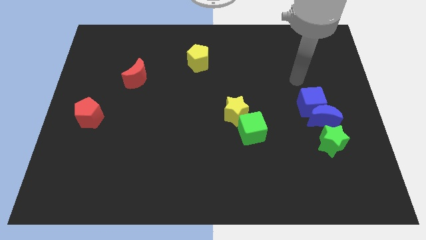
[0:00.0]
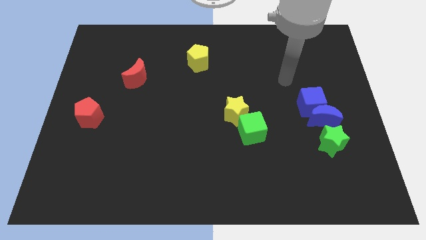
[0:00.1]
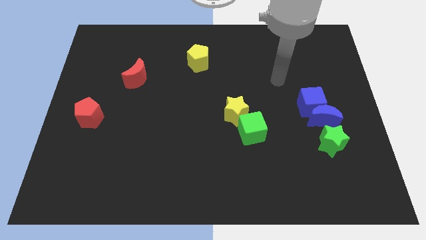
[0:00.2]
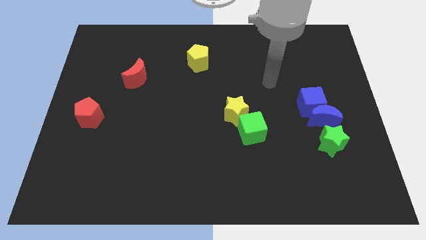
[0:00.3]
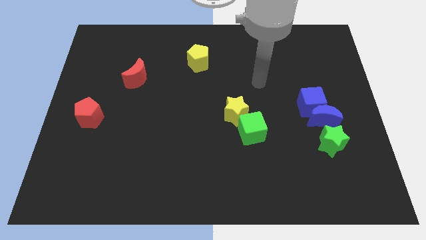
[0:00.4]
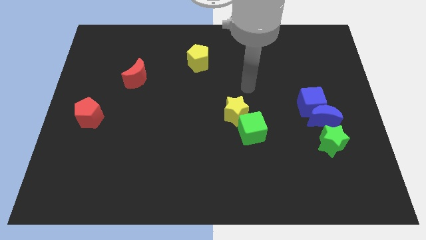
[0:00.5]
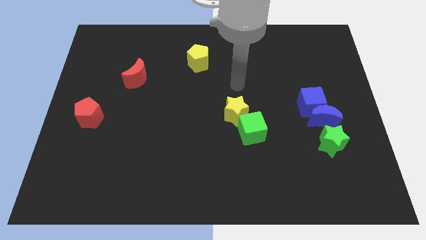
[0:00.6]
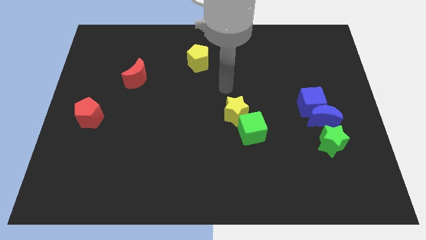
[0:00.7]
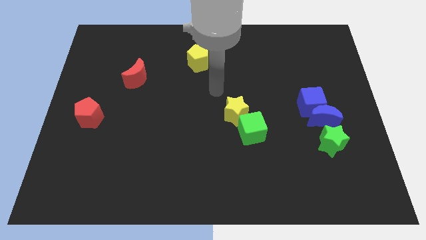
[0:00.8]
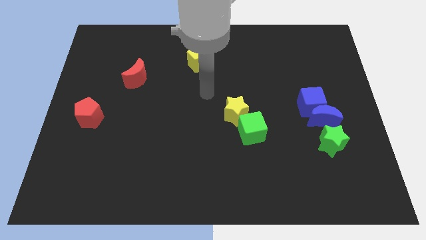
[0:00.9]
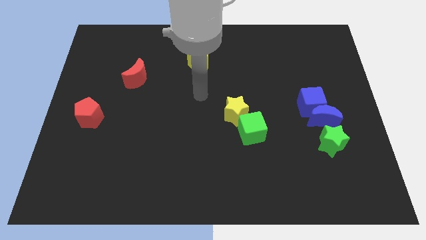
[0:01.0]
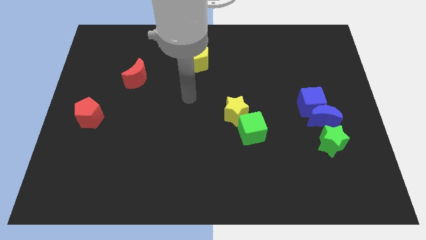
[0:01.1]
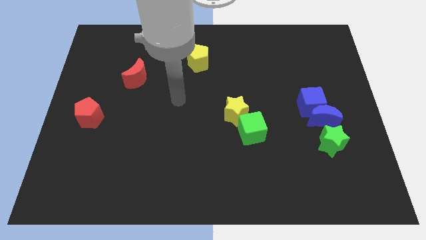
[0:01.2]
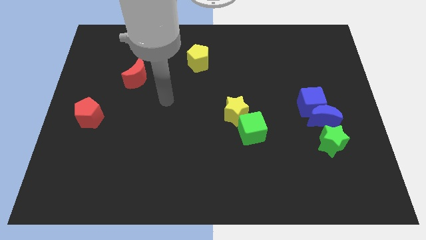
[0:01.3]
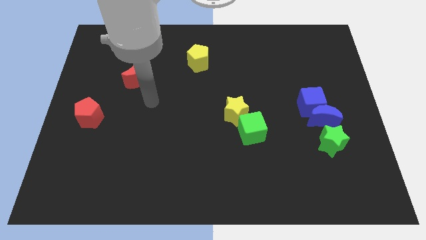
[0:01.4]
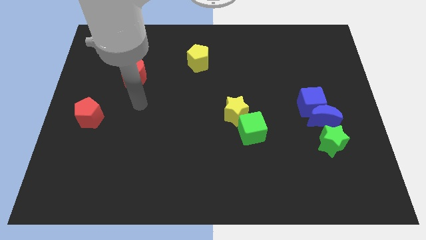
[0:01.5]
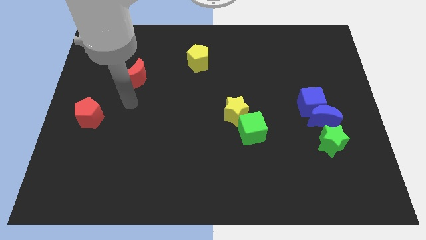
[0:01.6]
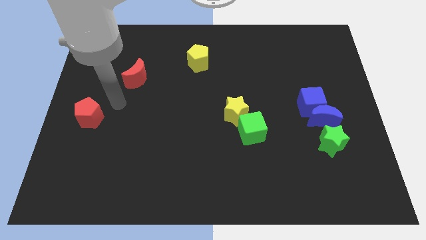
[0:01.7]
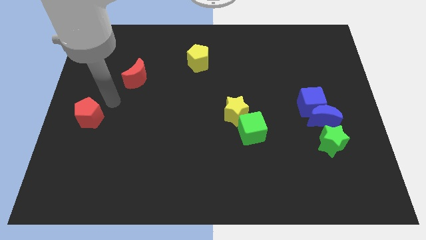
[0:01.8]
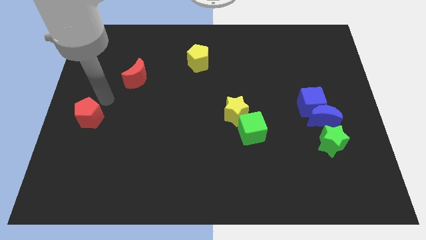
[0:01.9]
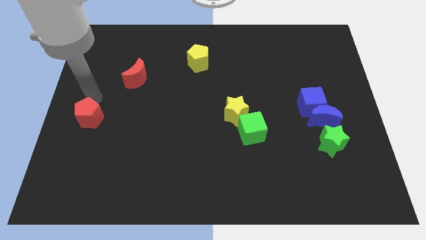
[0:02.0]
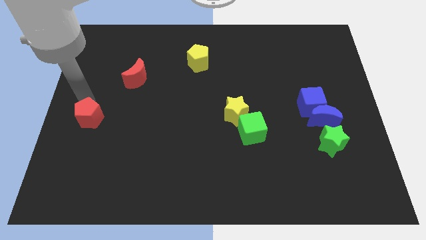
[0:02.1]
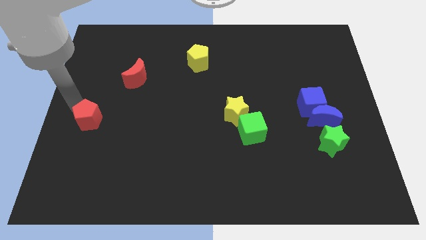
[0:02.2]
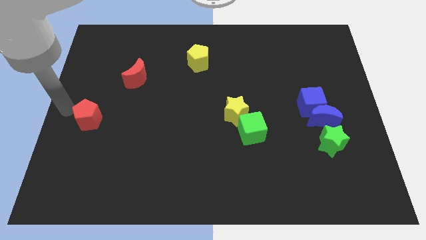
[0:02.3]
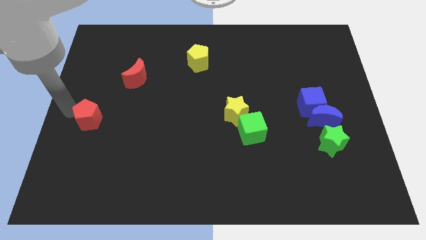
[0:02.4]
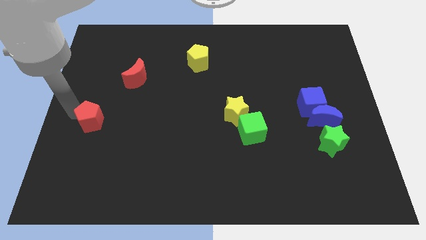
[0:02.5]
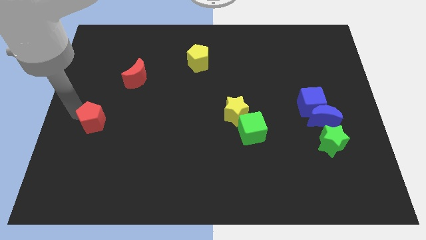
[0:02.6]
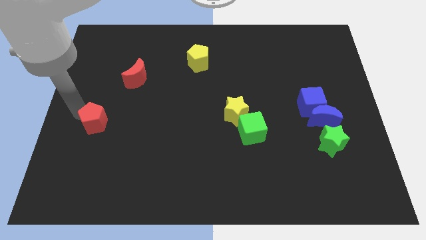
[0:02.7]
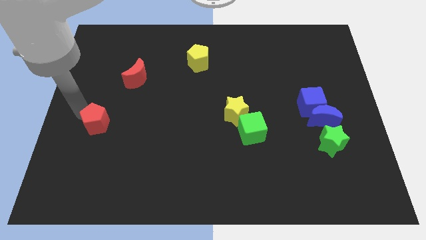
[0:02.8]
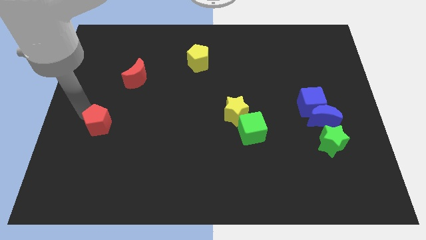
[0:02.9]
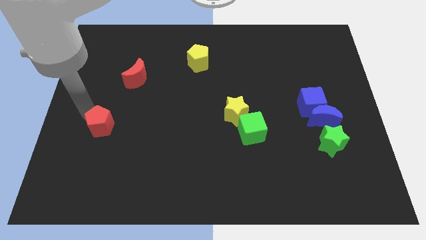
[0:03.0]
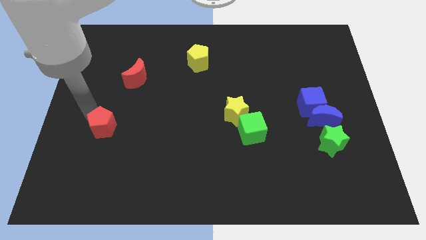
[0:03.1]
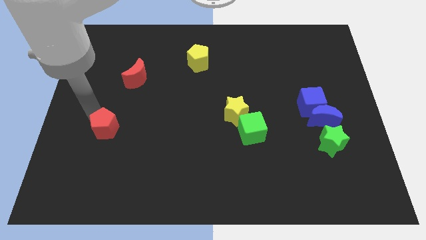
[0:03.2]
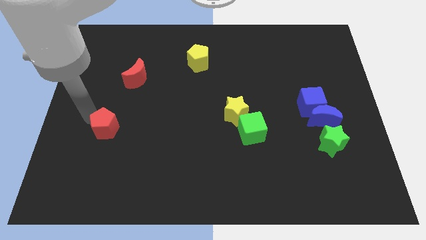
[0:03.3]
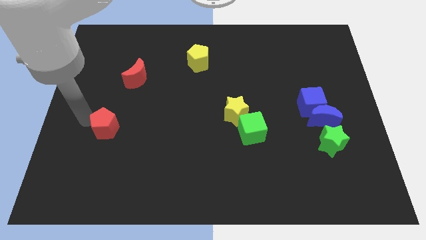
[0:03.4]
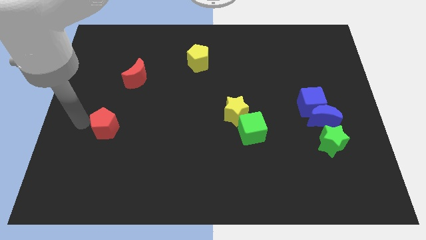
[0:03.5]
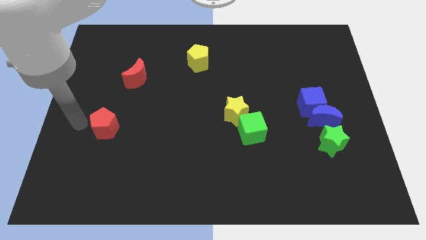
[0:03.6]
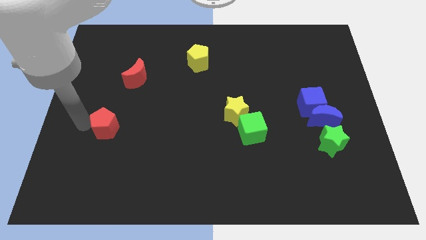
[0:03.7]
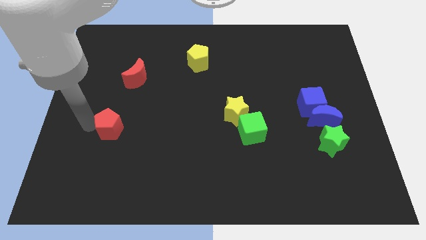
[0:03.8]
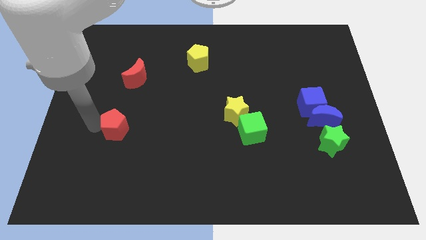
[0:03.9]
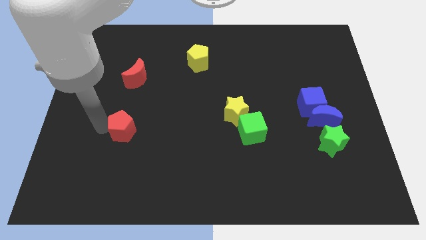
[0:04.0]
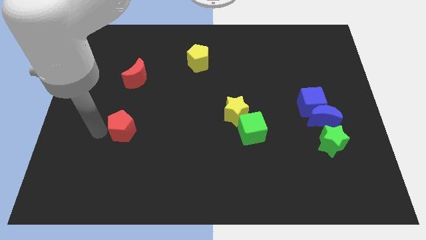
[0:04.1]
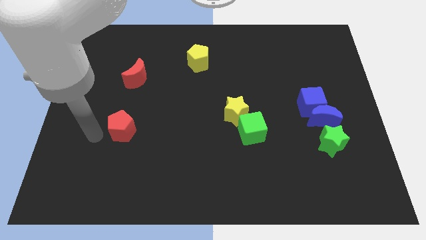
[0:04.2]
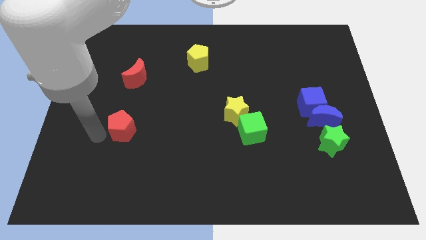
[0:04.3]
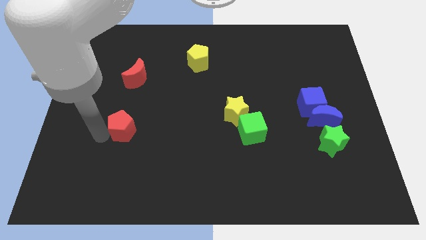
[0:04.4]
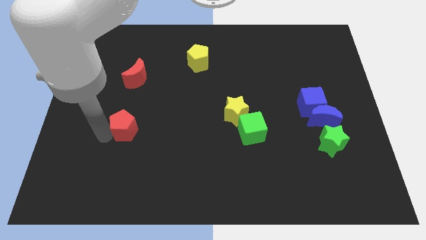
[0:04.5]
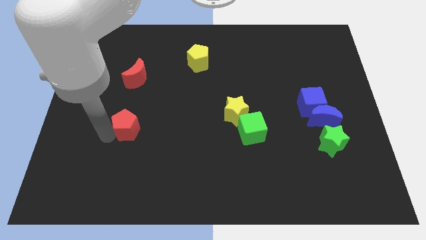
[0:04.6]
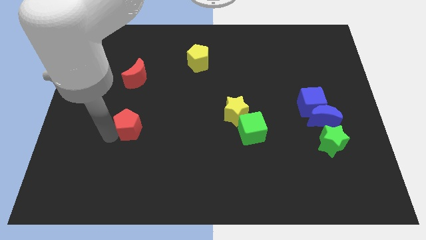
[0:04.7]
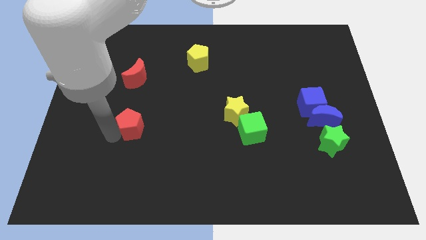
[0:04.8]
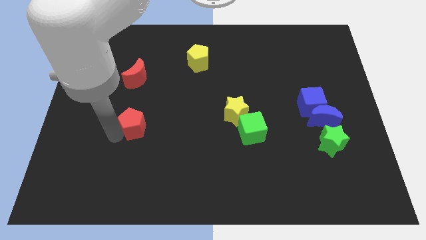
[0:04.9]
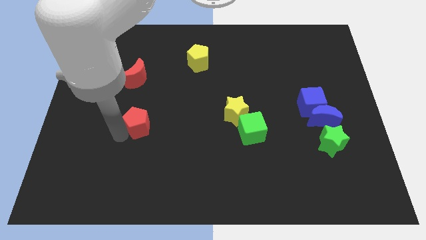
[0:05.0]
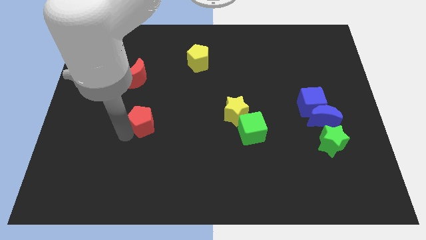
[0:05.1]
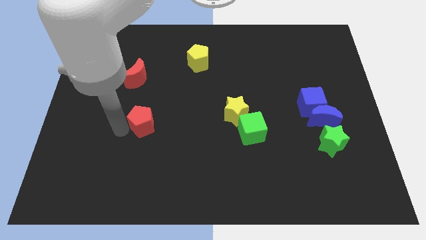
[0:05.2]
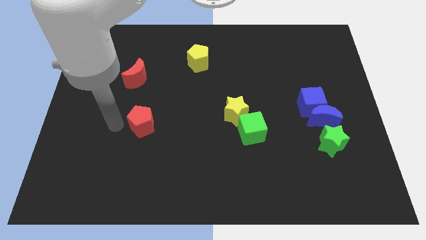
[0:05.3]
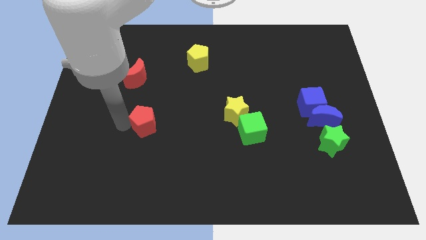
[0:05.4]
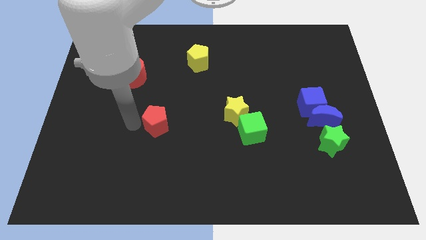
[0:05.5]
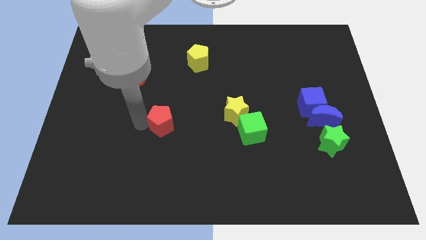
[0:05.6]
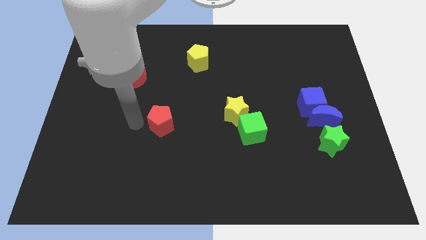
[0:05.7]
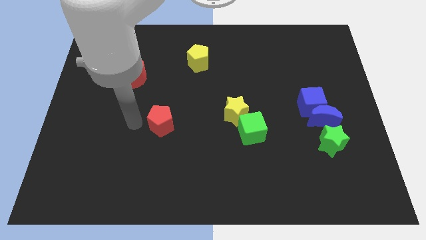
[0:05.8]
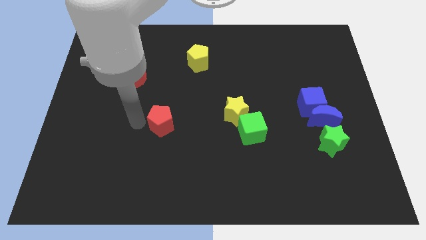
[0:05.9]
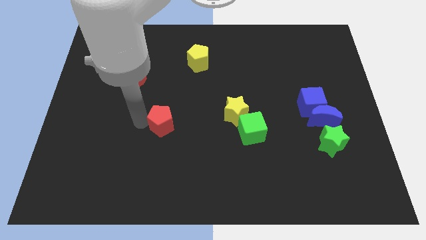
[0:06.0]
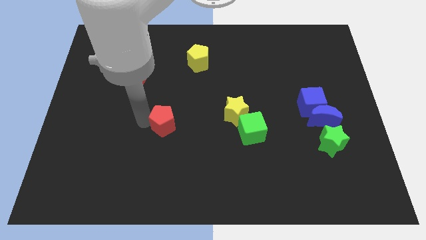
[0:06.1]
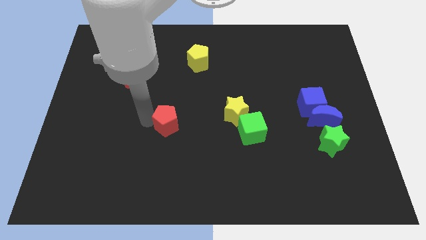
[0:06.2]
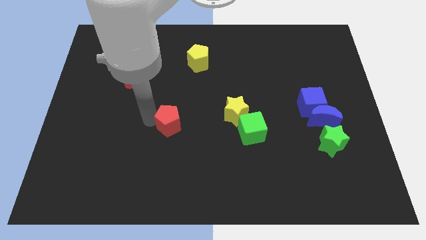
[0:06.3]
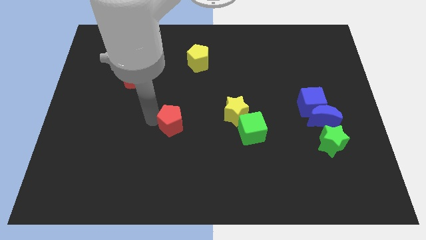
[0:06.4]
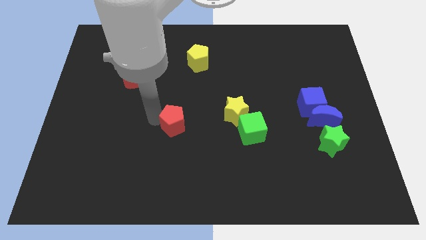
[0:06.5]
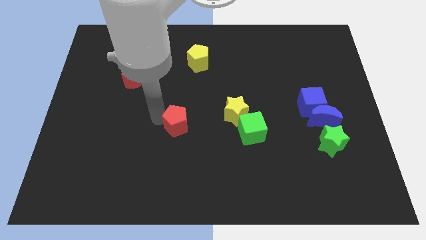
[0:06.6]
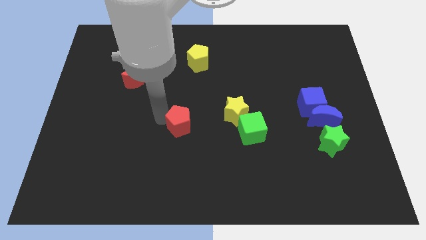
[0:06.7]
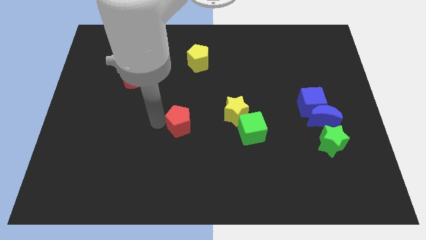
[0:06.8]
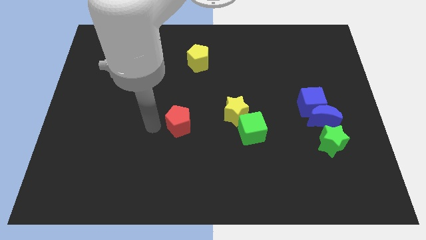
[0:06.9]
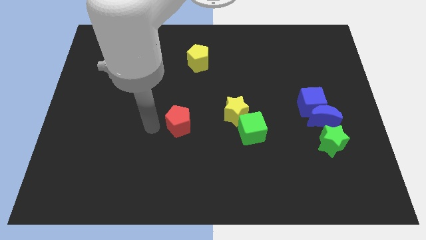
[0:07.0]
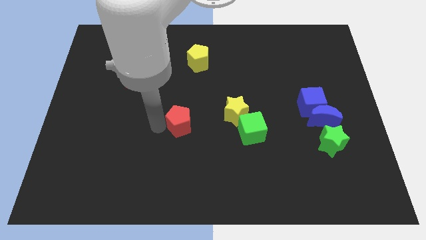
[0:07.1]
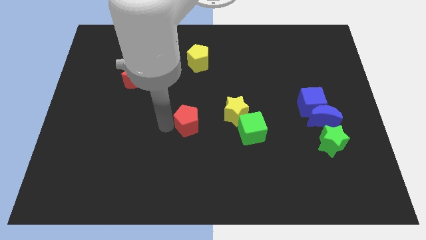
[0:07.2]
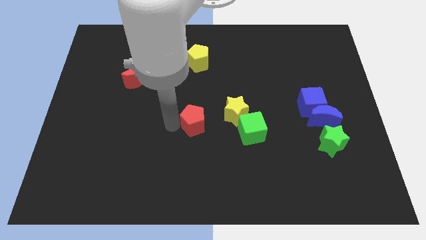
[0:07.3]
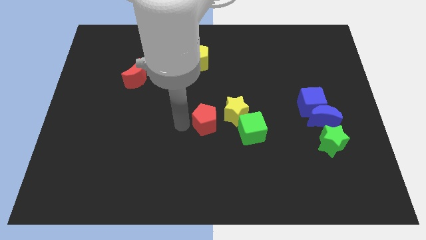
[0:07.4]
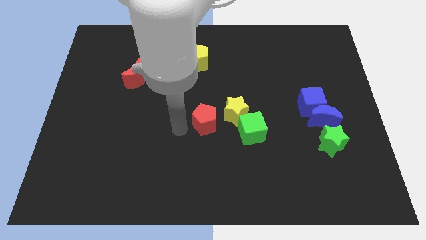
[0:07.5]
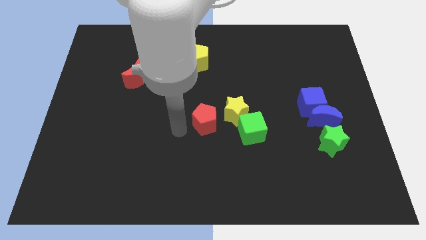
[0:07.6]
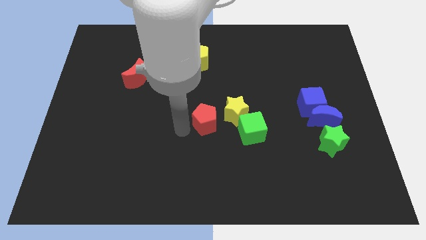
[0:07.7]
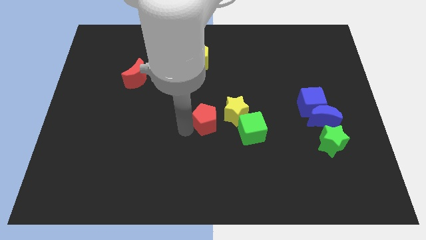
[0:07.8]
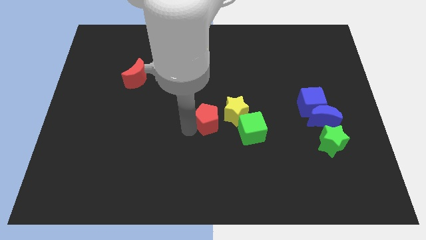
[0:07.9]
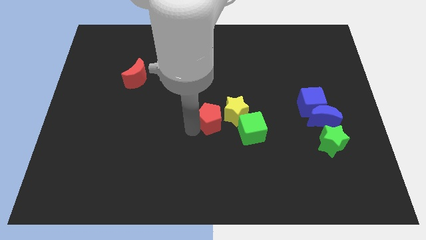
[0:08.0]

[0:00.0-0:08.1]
slide the red pentagon next to the yellow star
